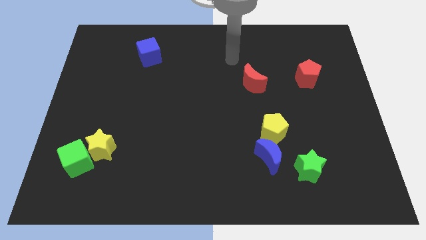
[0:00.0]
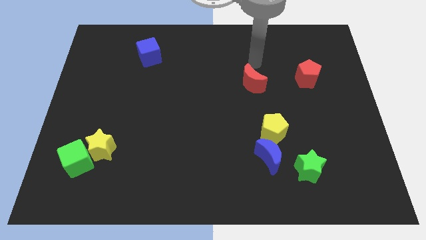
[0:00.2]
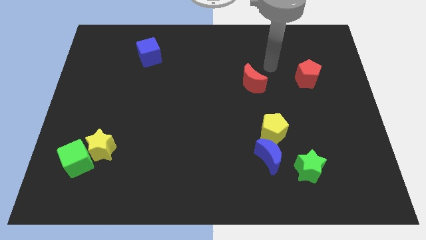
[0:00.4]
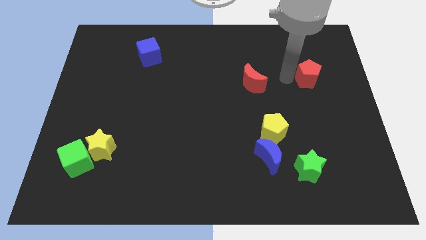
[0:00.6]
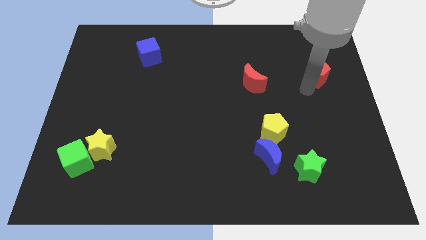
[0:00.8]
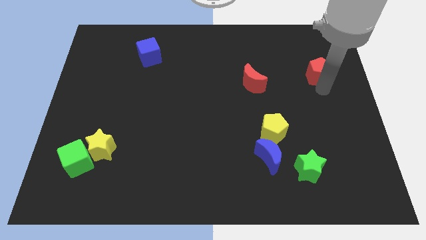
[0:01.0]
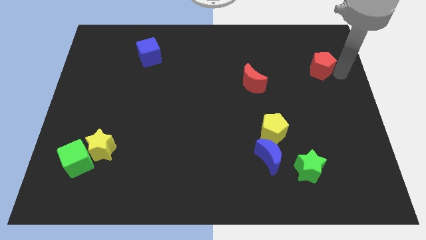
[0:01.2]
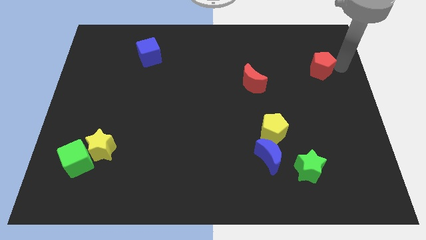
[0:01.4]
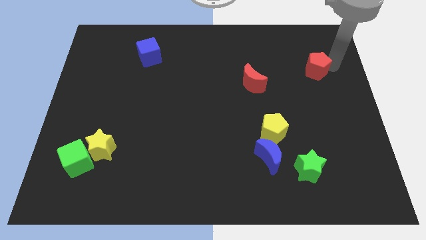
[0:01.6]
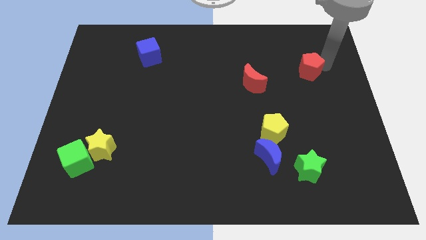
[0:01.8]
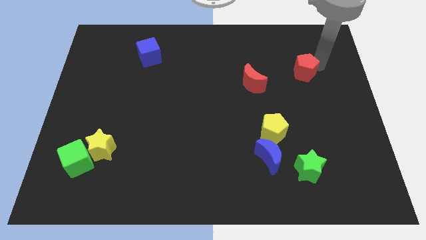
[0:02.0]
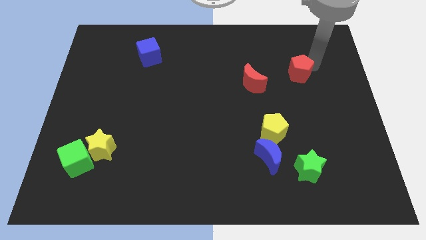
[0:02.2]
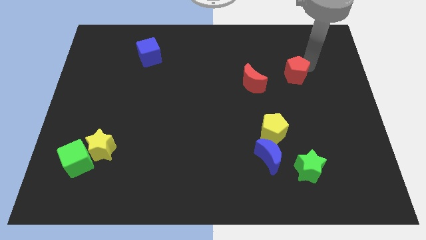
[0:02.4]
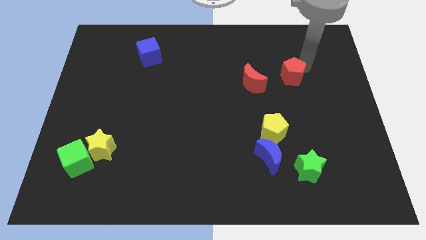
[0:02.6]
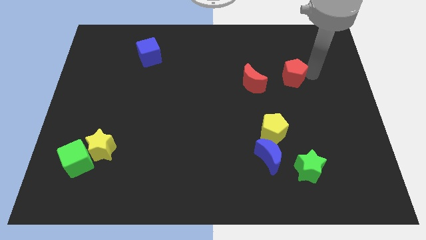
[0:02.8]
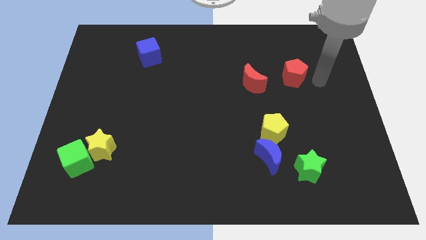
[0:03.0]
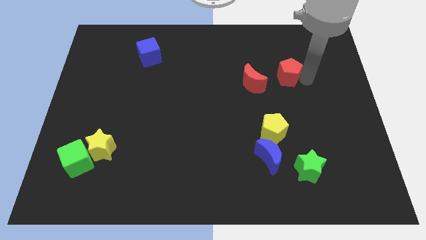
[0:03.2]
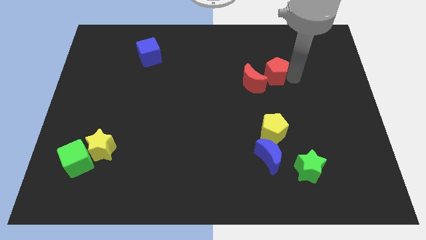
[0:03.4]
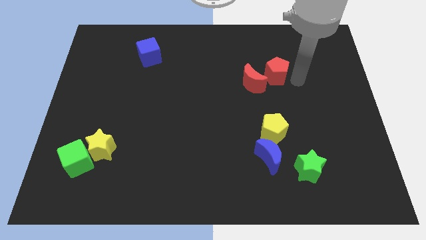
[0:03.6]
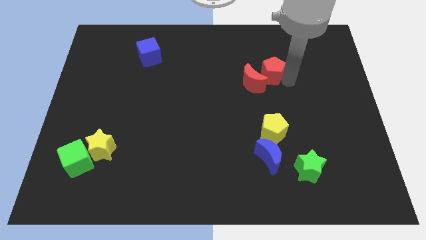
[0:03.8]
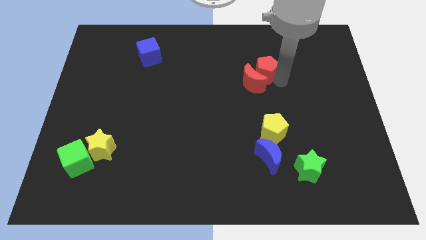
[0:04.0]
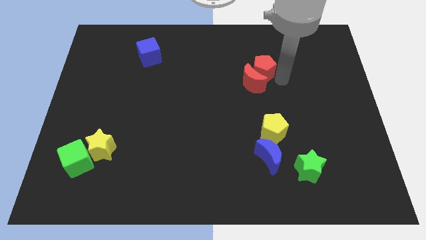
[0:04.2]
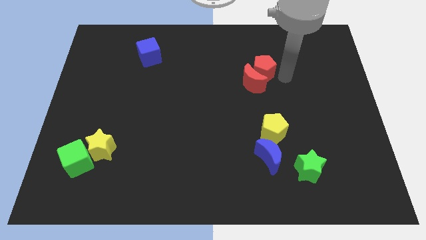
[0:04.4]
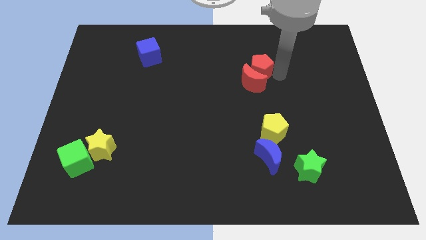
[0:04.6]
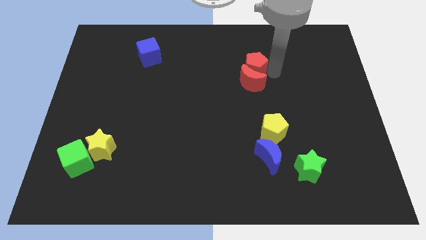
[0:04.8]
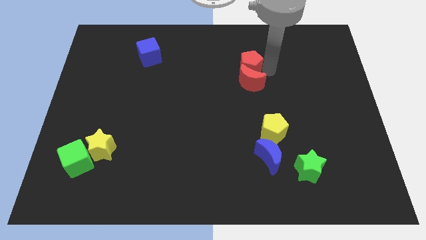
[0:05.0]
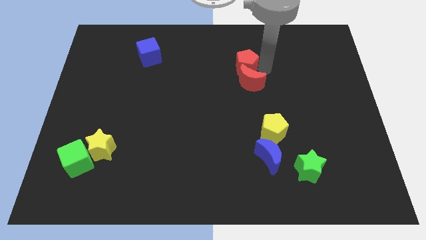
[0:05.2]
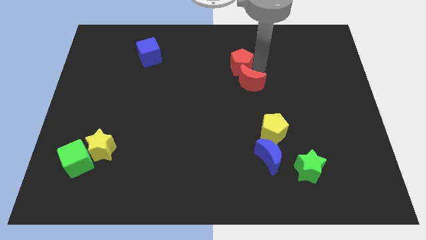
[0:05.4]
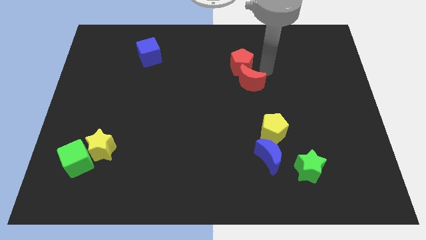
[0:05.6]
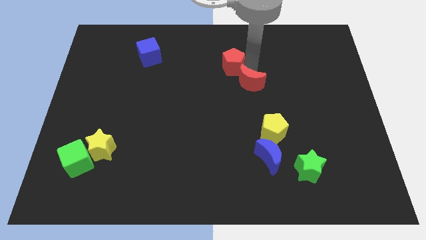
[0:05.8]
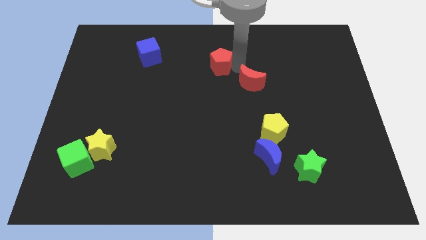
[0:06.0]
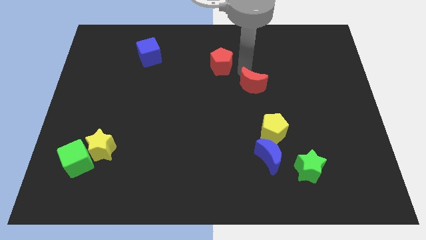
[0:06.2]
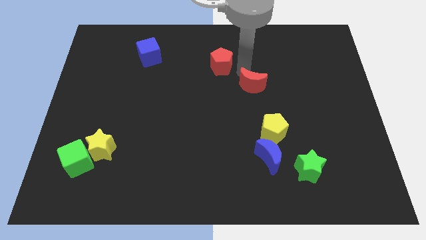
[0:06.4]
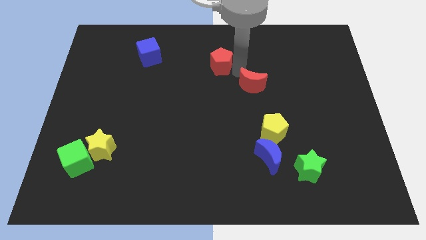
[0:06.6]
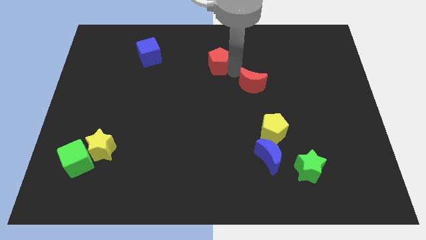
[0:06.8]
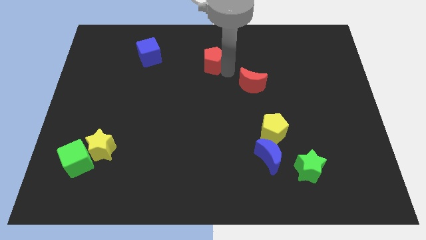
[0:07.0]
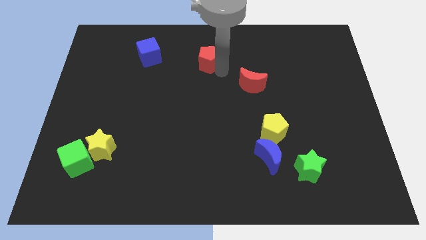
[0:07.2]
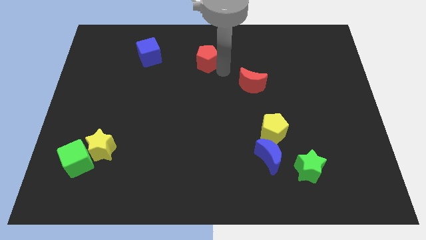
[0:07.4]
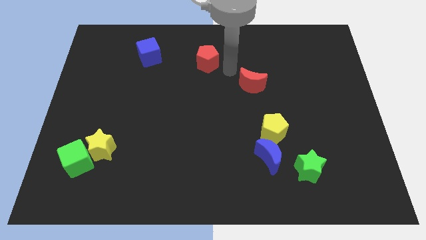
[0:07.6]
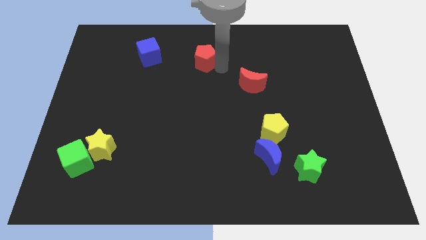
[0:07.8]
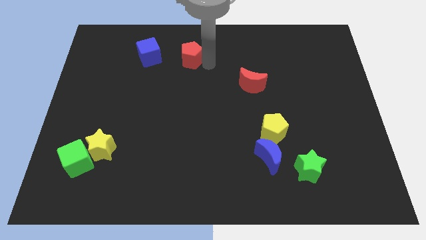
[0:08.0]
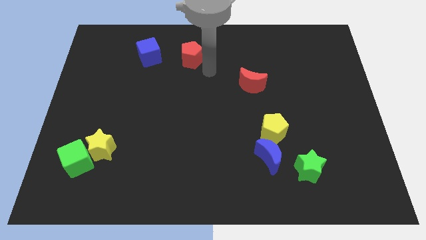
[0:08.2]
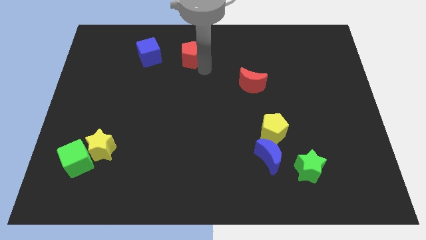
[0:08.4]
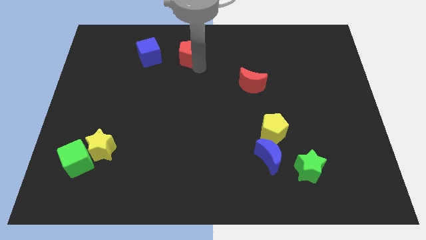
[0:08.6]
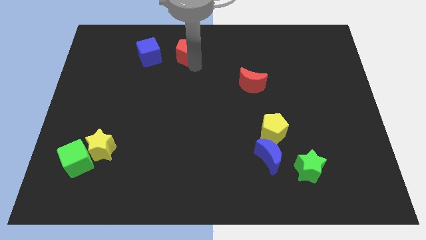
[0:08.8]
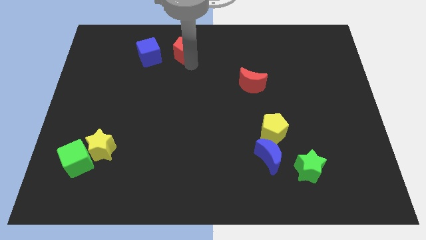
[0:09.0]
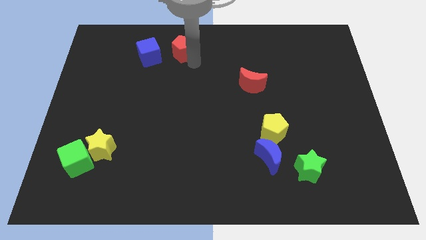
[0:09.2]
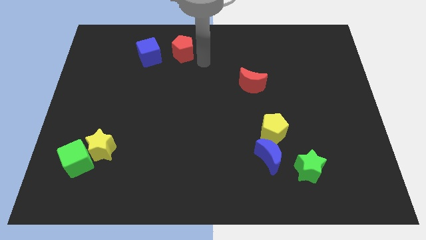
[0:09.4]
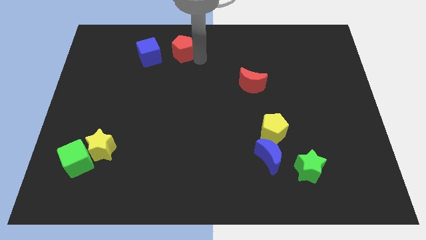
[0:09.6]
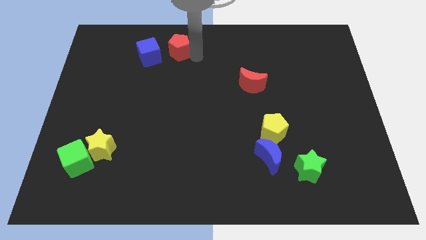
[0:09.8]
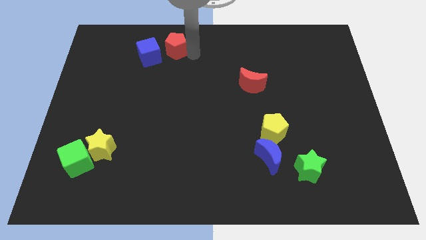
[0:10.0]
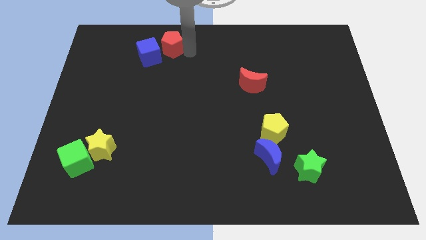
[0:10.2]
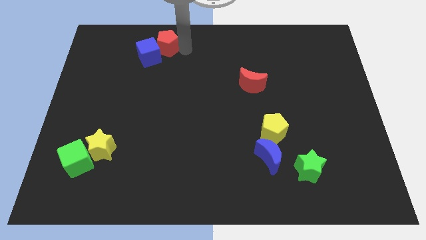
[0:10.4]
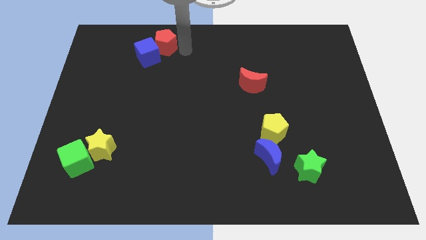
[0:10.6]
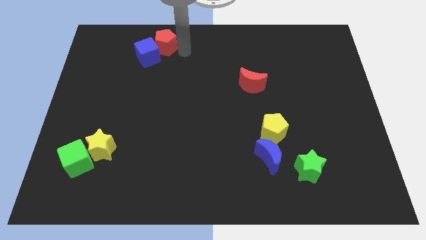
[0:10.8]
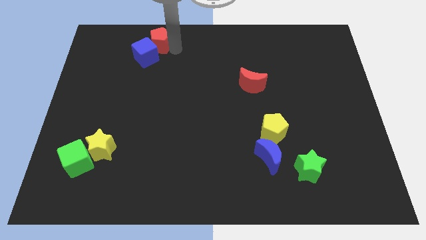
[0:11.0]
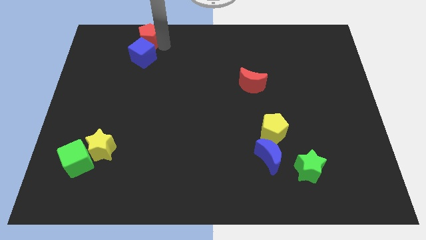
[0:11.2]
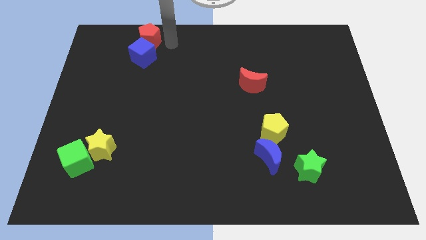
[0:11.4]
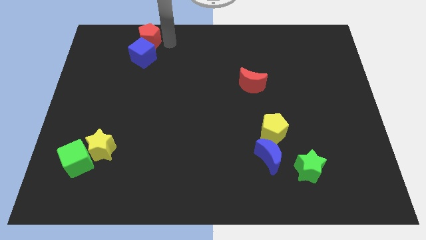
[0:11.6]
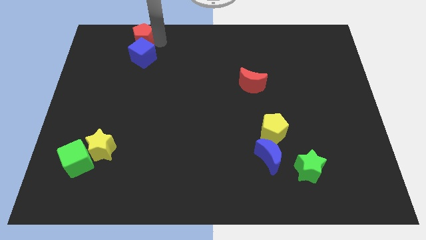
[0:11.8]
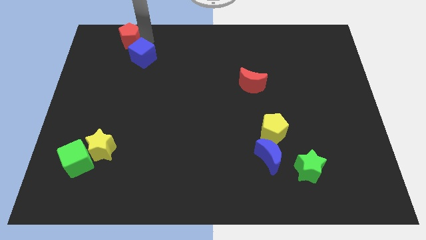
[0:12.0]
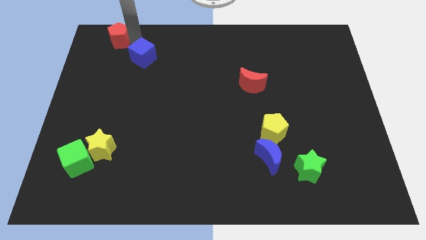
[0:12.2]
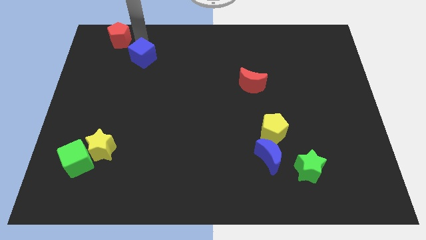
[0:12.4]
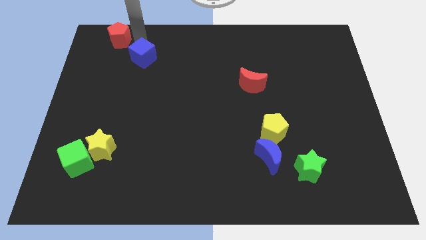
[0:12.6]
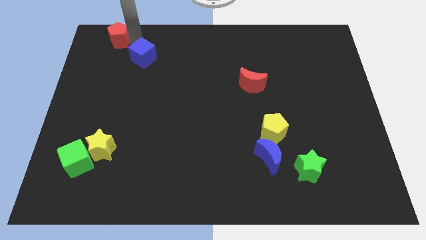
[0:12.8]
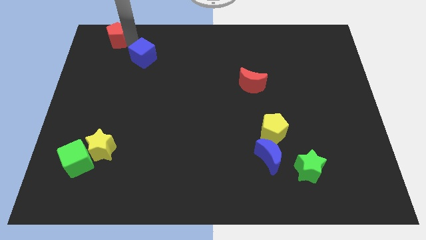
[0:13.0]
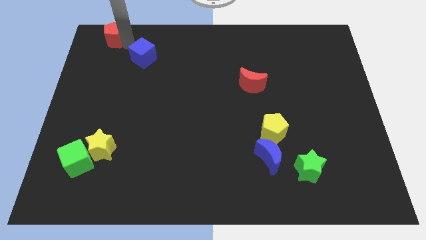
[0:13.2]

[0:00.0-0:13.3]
slide the red pentagon to the top left corner
